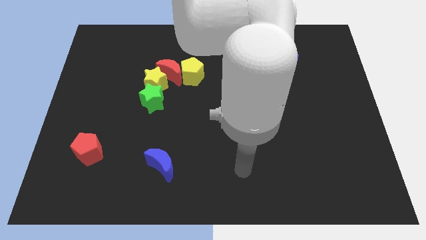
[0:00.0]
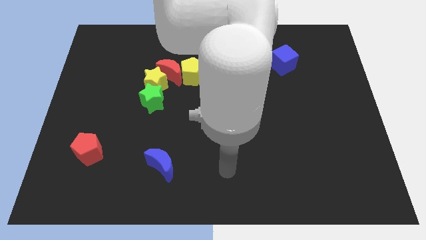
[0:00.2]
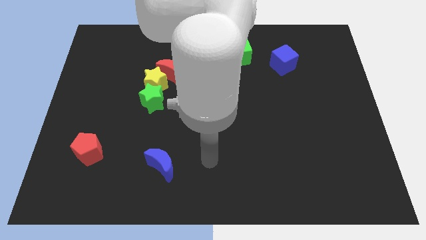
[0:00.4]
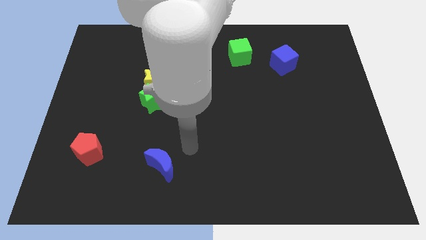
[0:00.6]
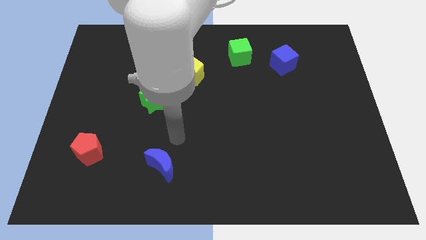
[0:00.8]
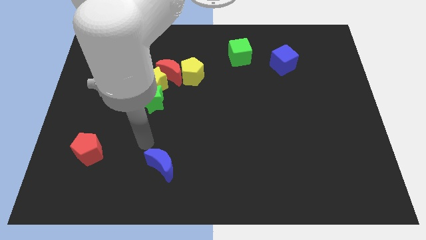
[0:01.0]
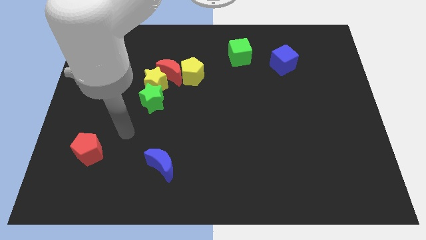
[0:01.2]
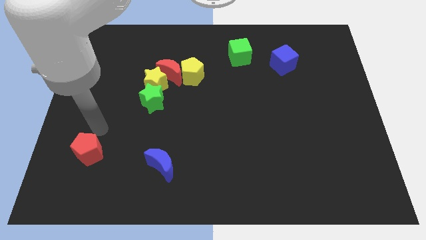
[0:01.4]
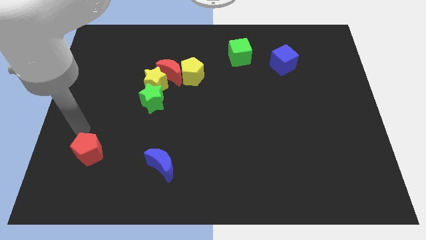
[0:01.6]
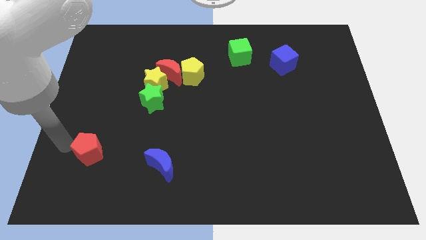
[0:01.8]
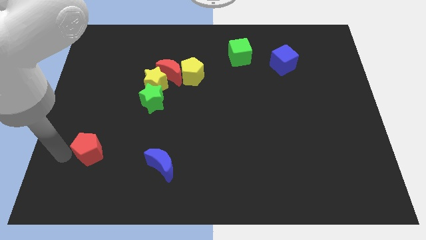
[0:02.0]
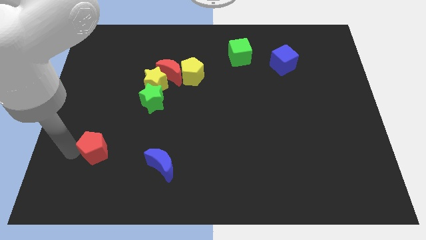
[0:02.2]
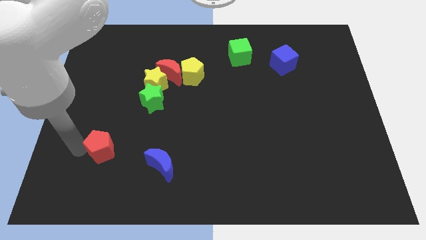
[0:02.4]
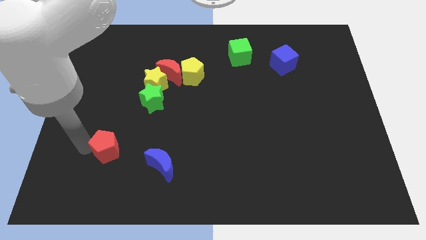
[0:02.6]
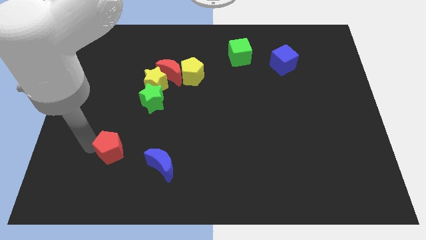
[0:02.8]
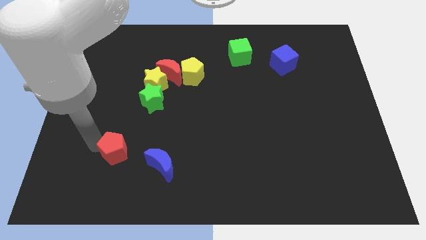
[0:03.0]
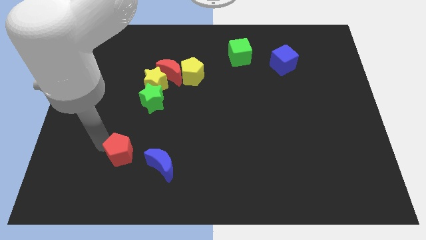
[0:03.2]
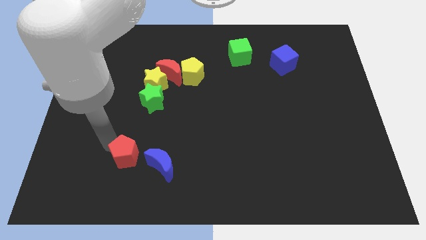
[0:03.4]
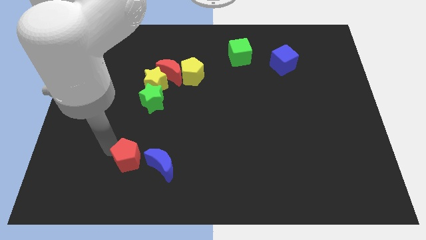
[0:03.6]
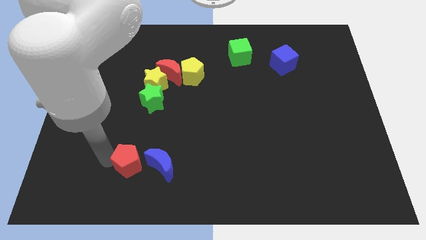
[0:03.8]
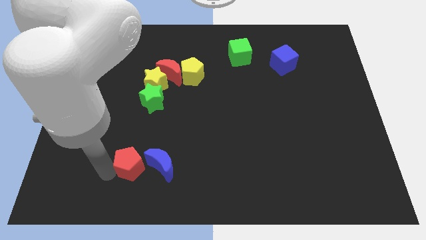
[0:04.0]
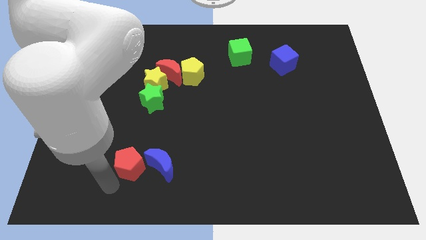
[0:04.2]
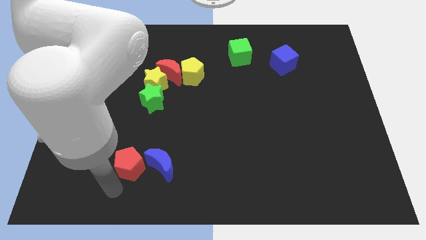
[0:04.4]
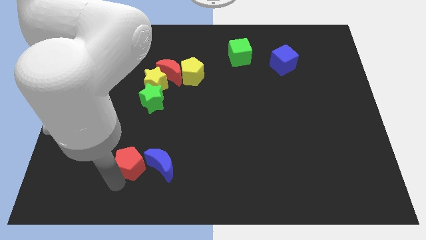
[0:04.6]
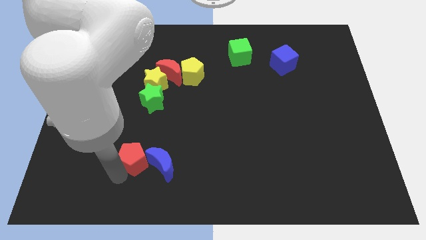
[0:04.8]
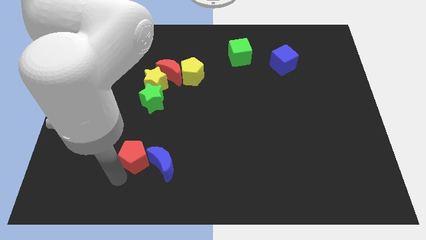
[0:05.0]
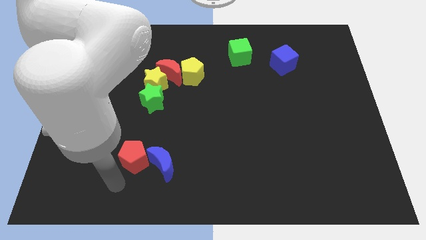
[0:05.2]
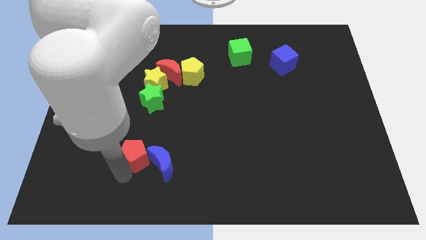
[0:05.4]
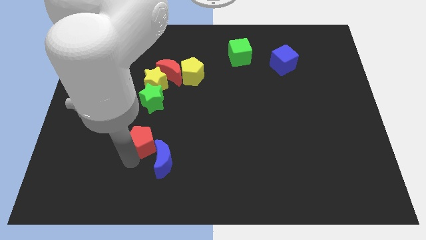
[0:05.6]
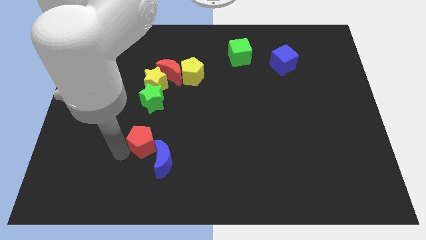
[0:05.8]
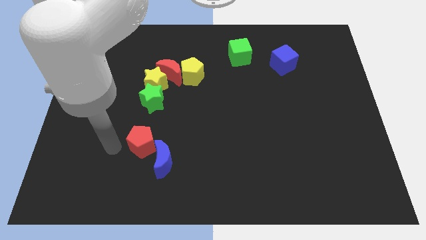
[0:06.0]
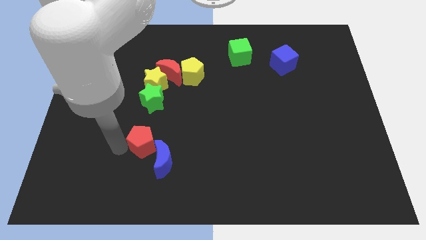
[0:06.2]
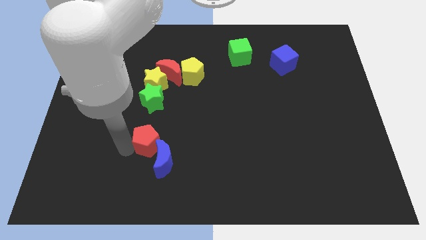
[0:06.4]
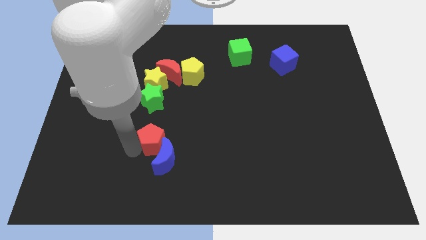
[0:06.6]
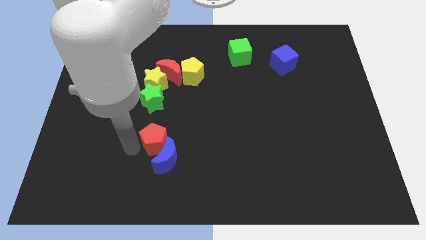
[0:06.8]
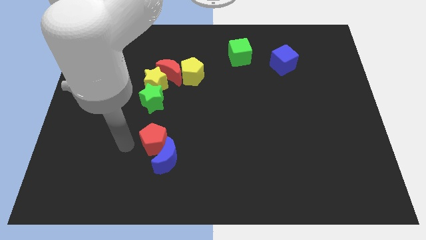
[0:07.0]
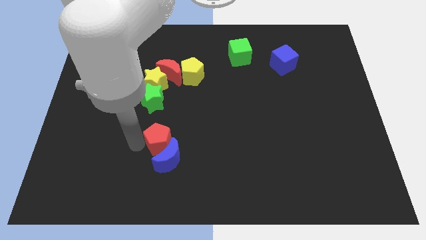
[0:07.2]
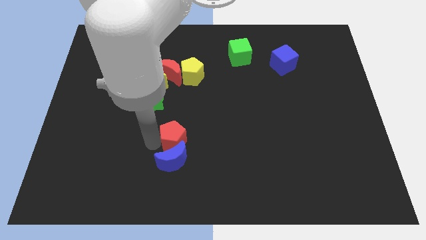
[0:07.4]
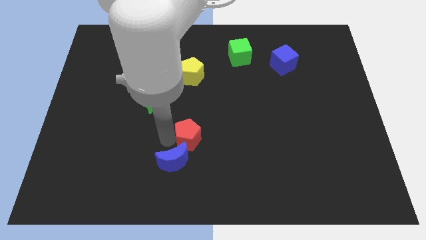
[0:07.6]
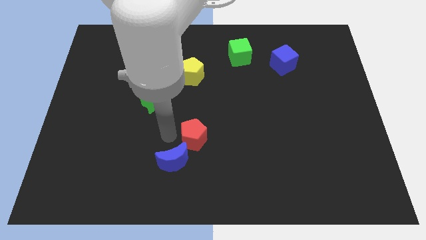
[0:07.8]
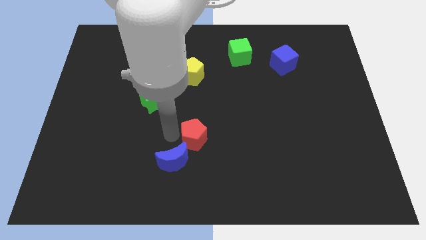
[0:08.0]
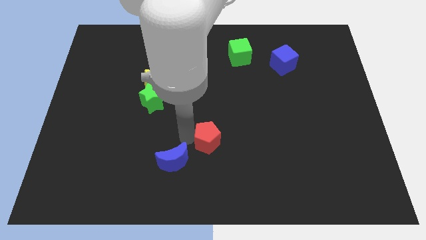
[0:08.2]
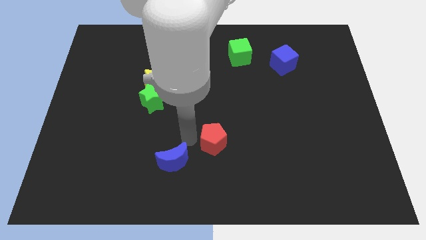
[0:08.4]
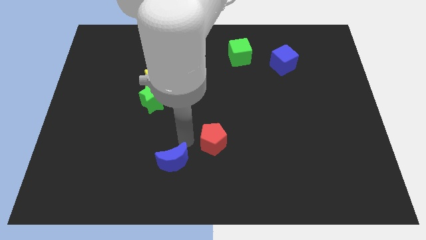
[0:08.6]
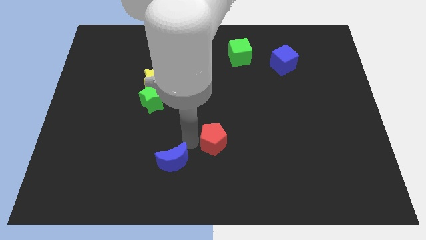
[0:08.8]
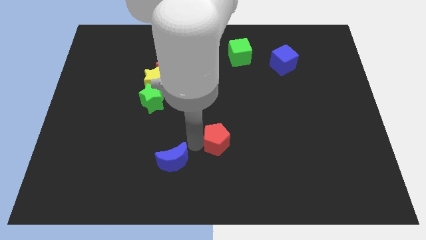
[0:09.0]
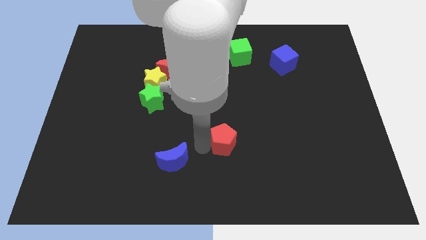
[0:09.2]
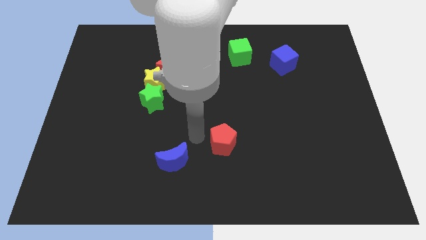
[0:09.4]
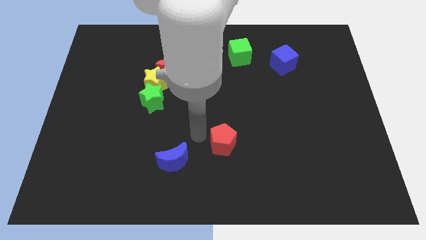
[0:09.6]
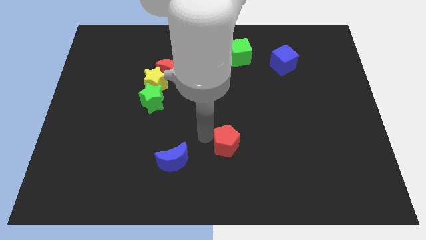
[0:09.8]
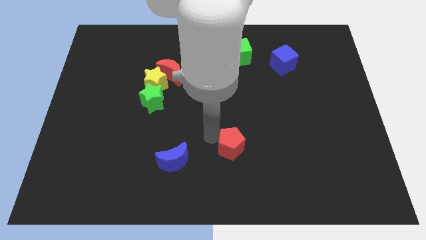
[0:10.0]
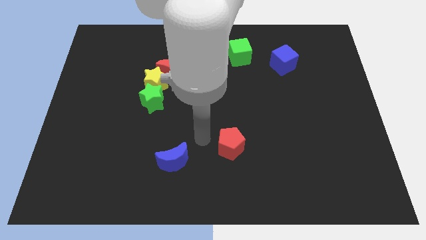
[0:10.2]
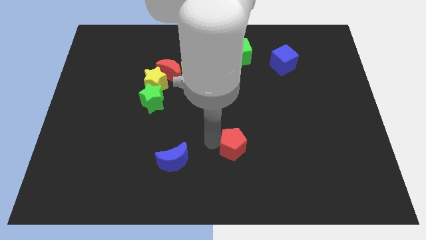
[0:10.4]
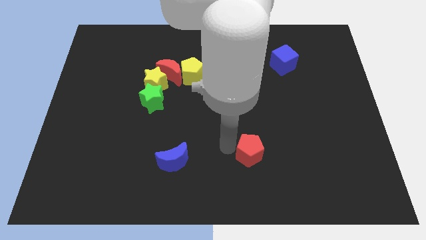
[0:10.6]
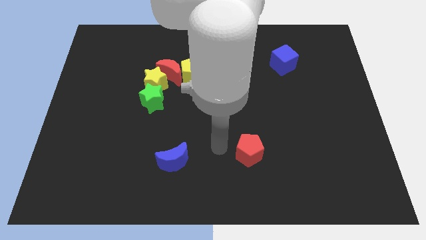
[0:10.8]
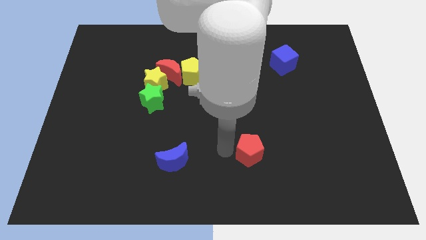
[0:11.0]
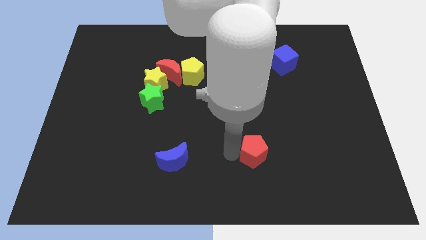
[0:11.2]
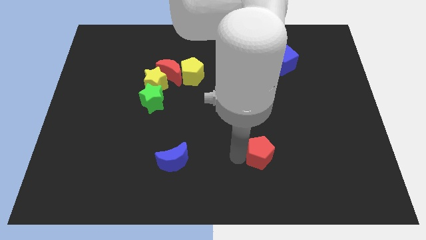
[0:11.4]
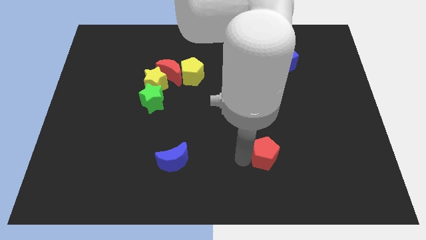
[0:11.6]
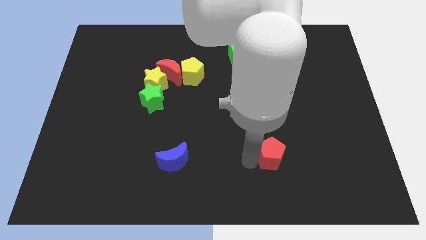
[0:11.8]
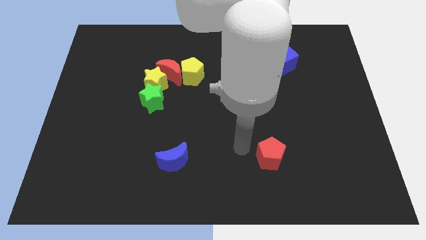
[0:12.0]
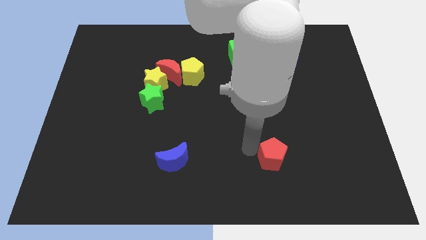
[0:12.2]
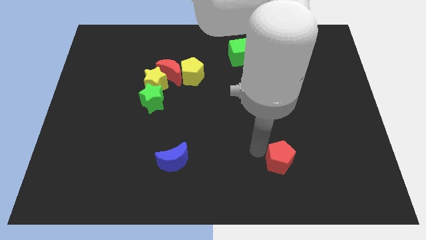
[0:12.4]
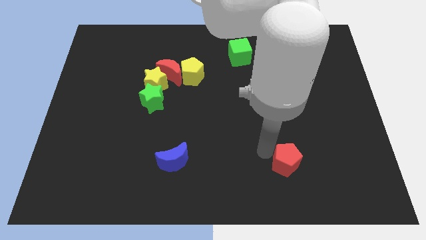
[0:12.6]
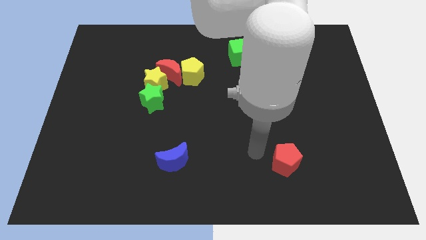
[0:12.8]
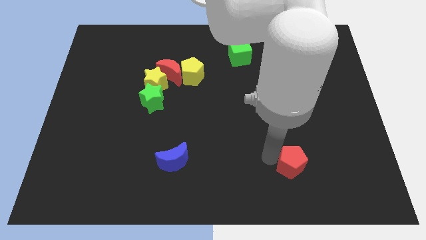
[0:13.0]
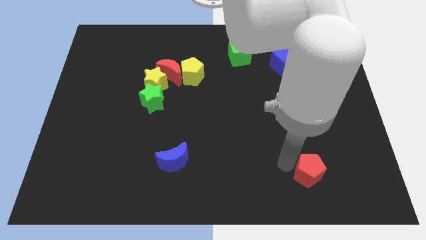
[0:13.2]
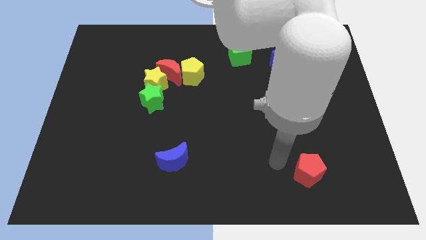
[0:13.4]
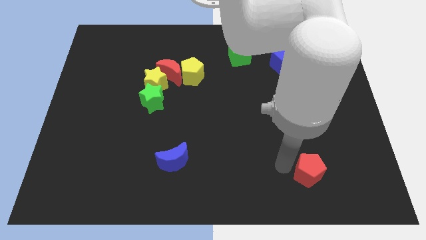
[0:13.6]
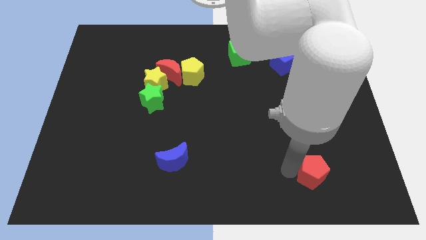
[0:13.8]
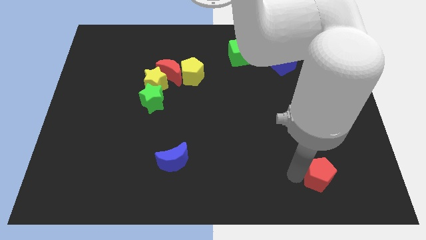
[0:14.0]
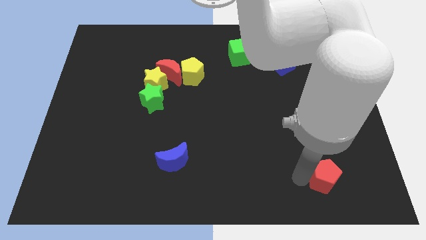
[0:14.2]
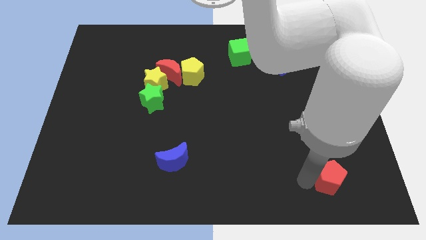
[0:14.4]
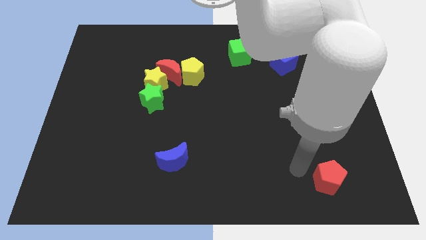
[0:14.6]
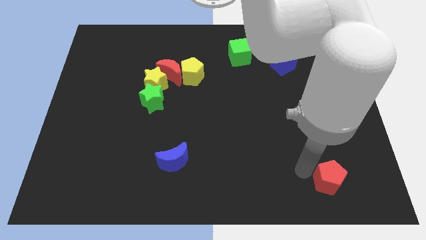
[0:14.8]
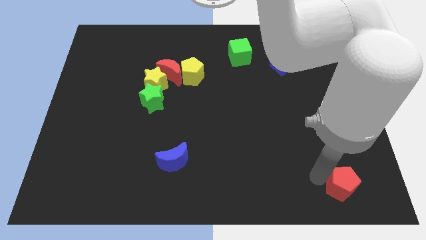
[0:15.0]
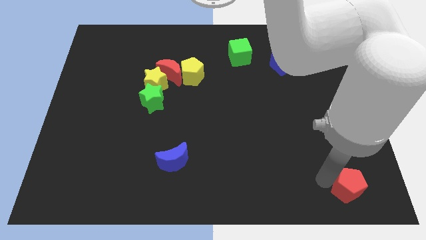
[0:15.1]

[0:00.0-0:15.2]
slide the red pentagon to the lower right corner
